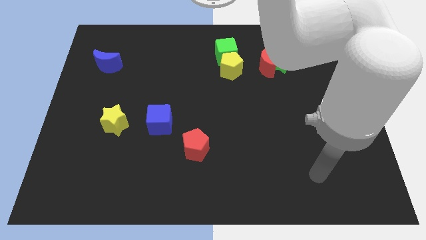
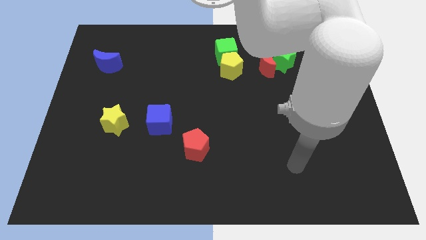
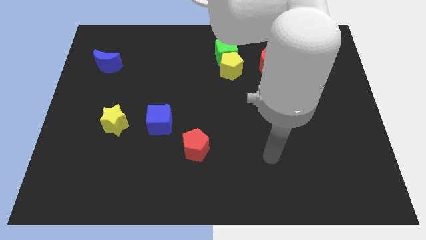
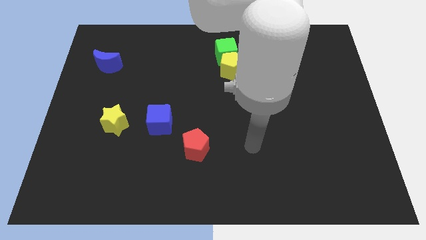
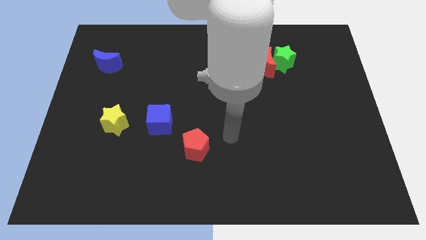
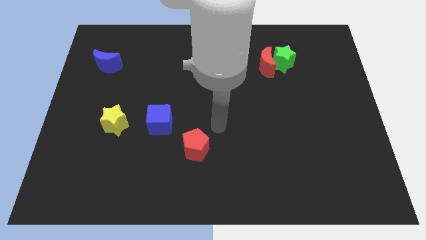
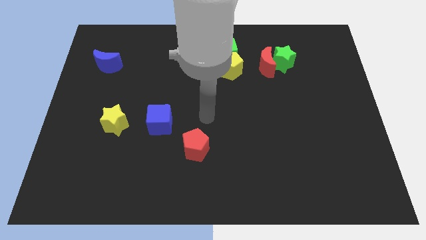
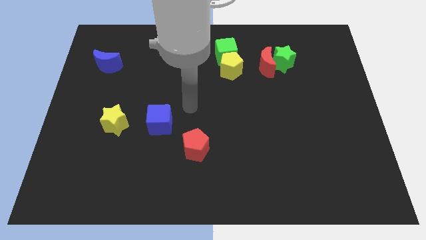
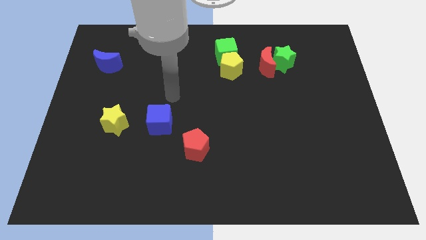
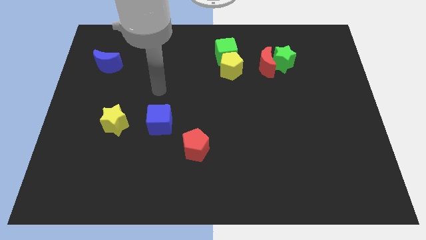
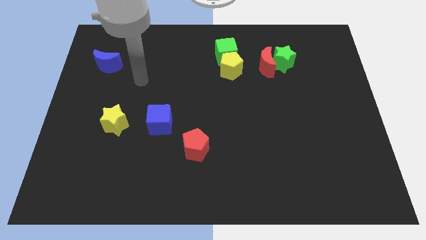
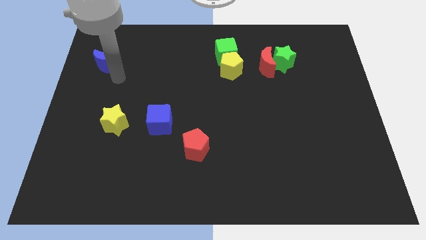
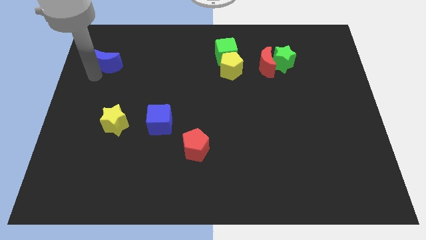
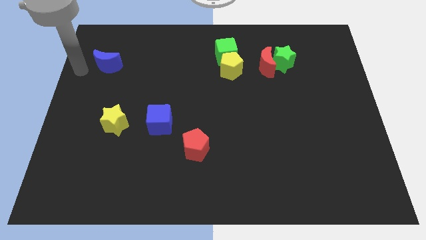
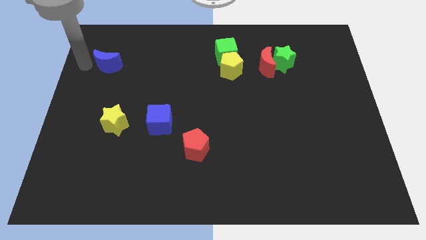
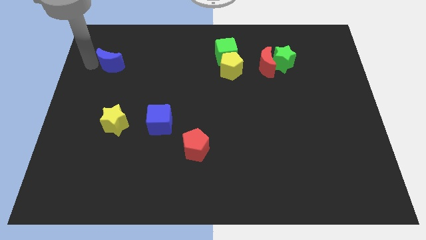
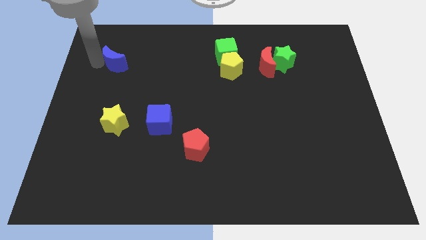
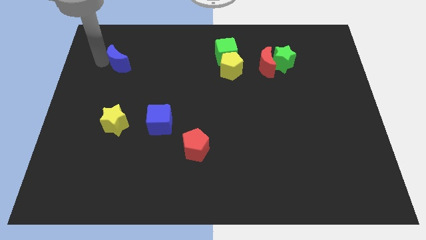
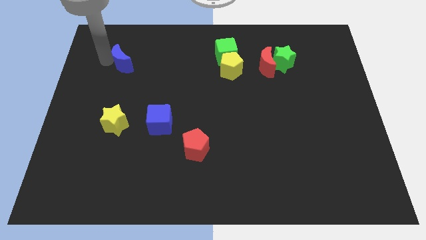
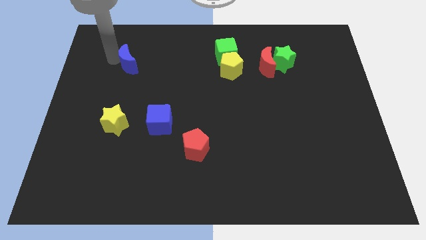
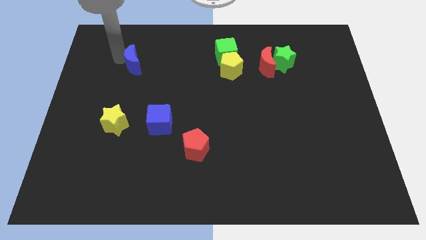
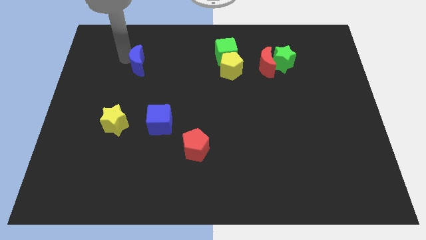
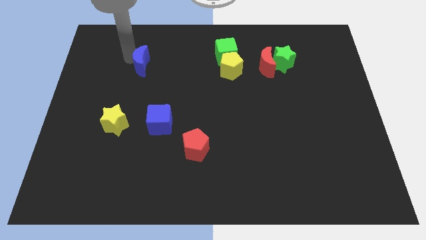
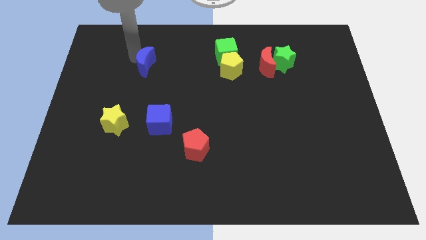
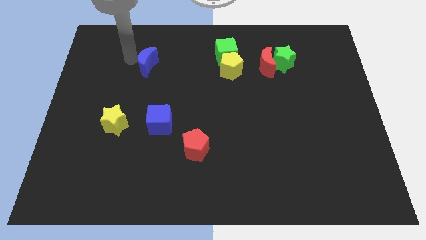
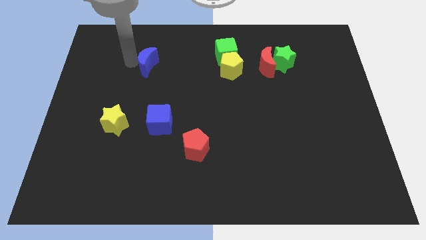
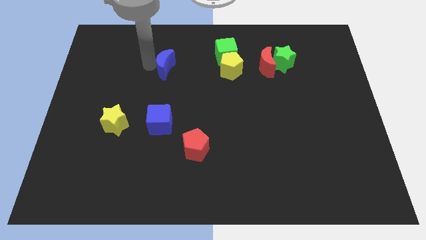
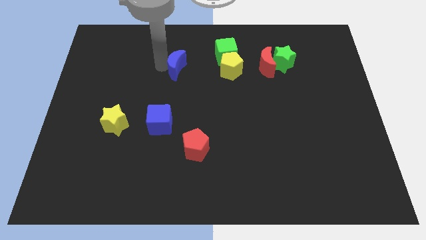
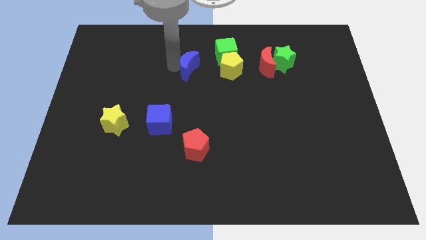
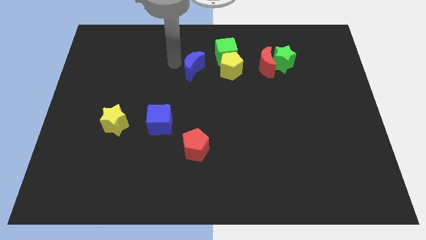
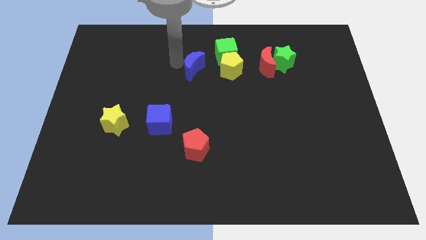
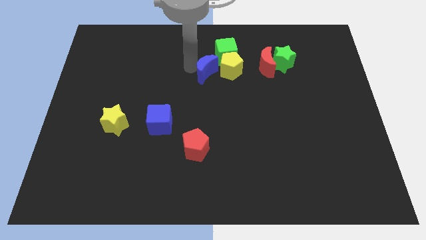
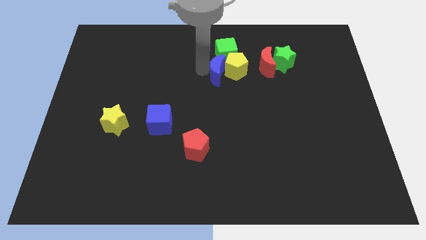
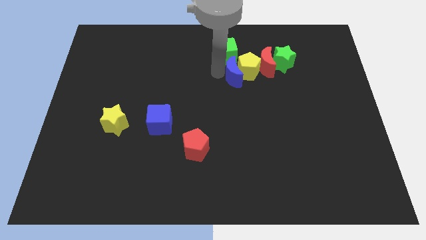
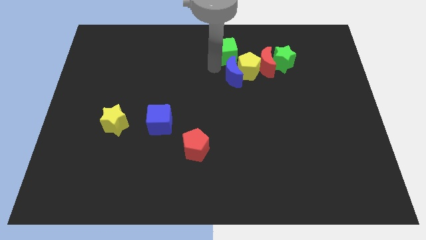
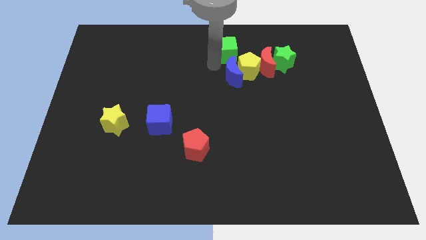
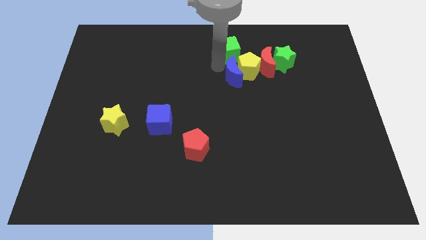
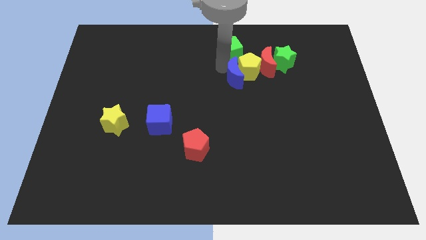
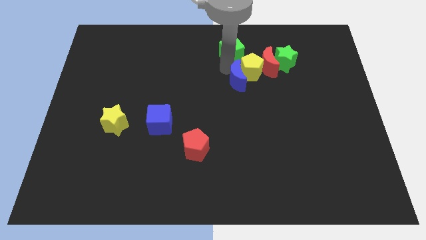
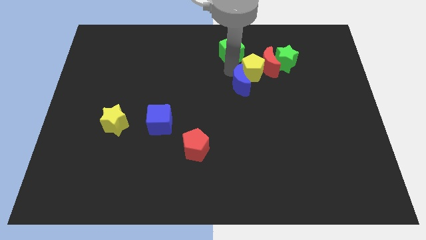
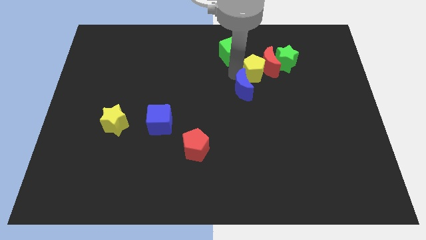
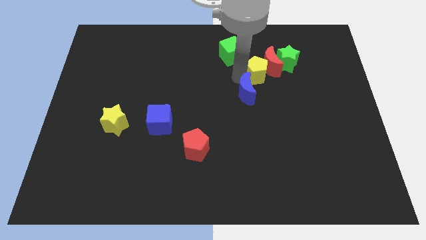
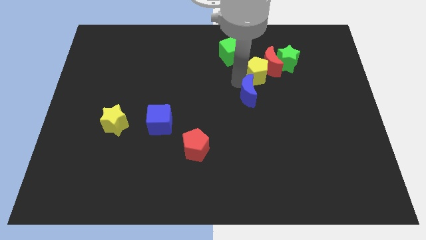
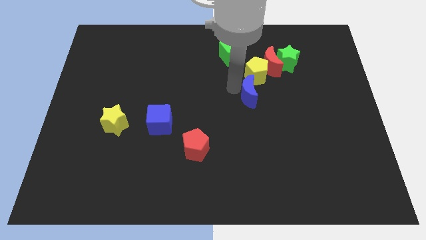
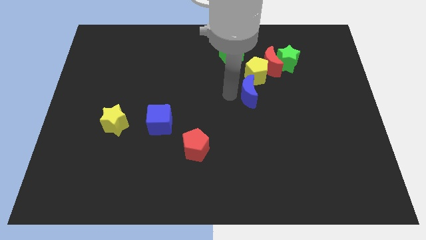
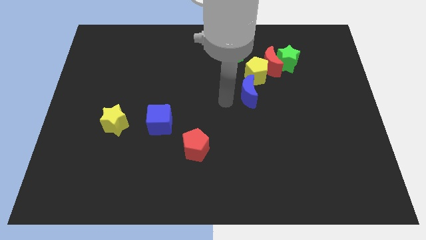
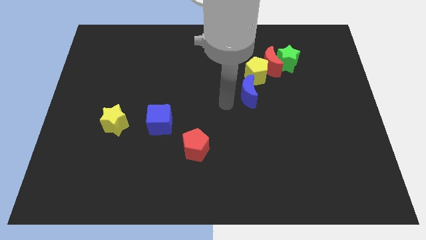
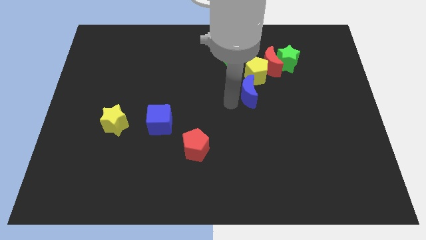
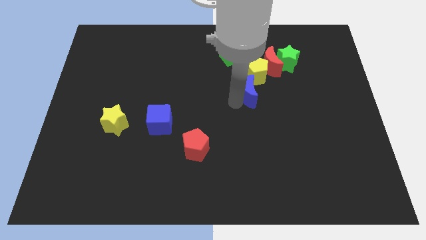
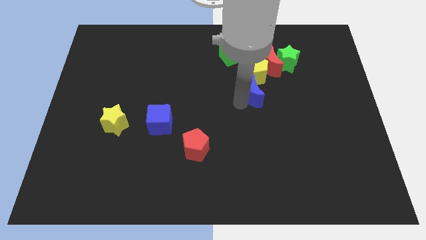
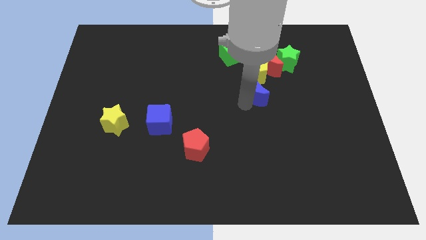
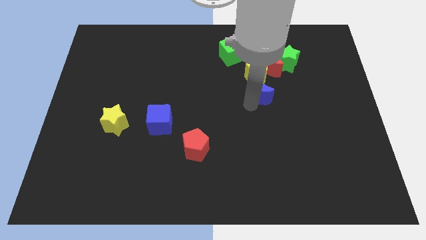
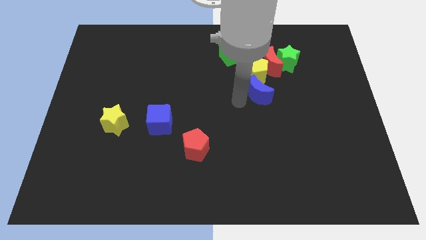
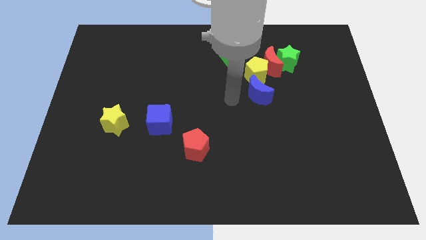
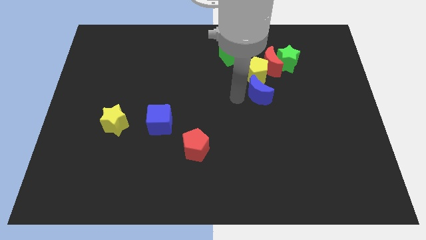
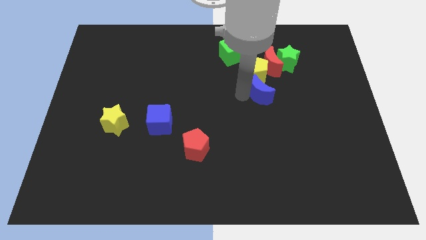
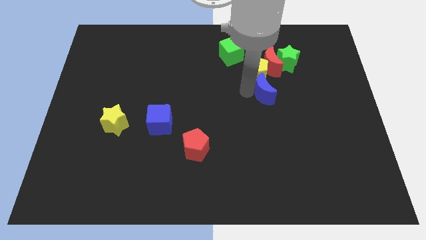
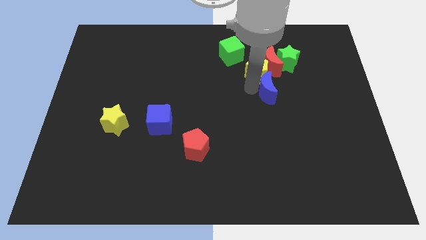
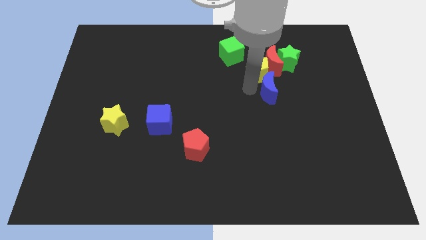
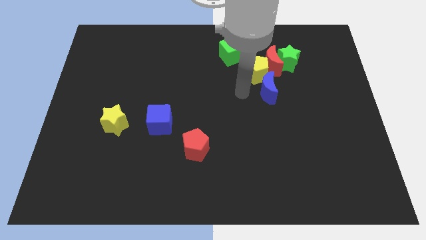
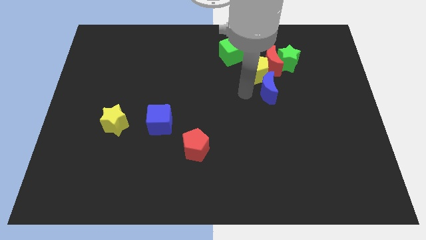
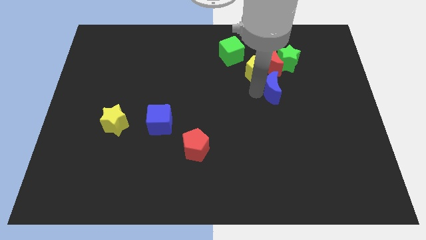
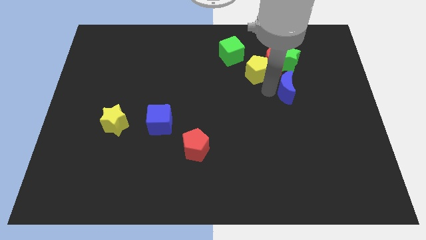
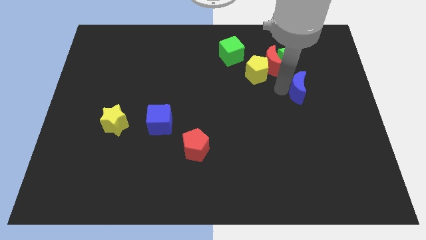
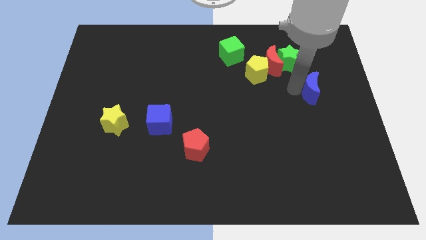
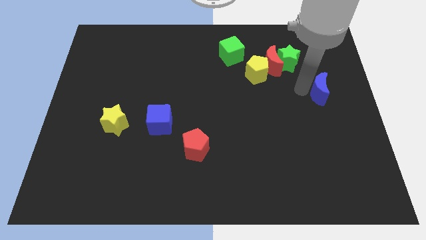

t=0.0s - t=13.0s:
slide the blue moon to the right side
